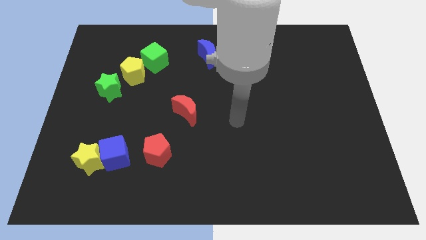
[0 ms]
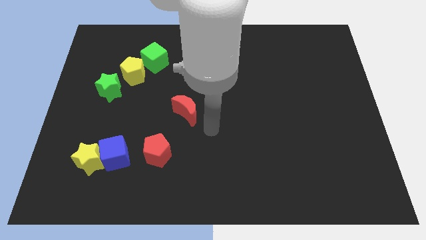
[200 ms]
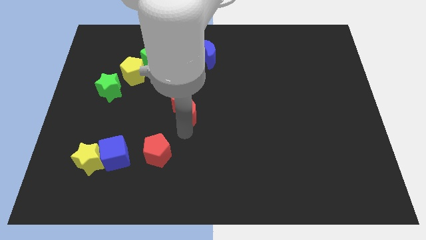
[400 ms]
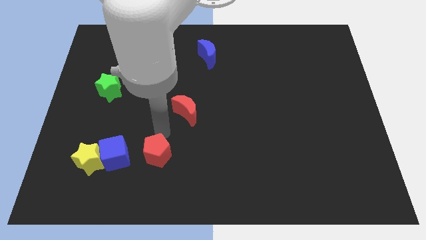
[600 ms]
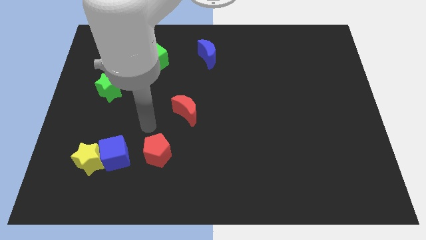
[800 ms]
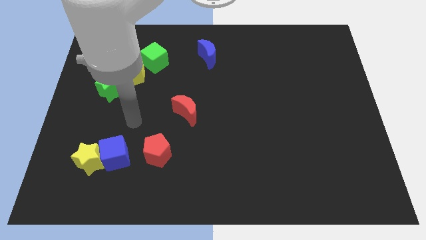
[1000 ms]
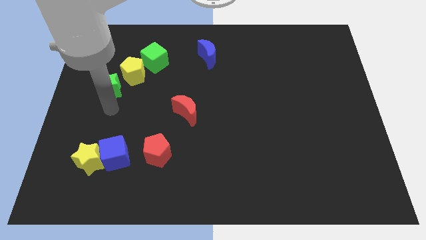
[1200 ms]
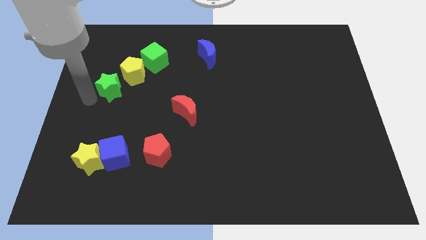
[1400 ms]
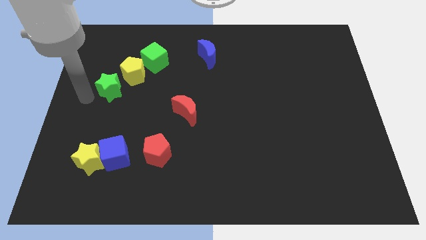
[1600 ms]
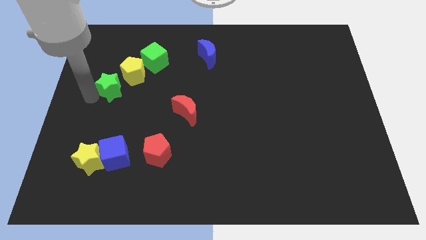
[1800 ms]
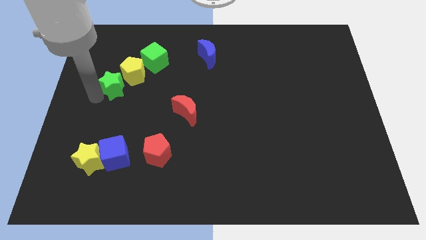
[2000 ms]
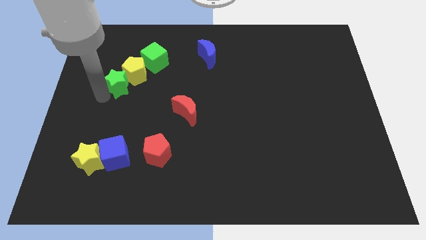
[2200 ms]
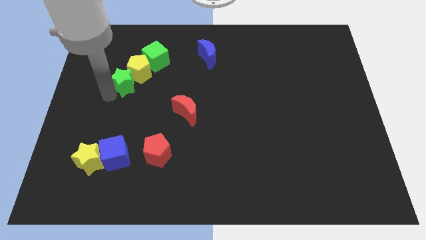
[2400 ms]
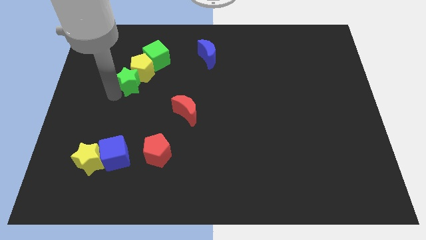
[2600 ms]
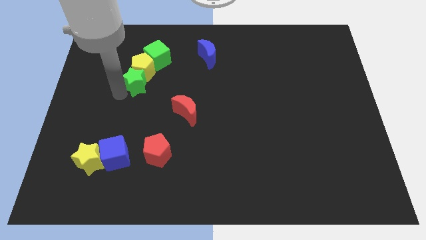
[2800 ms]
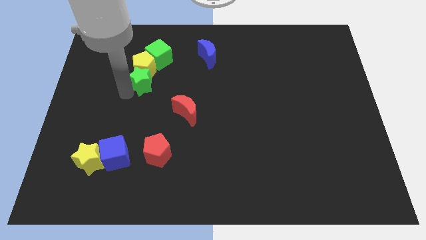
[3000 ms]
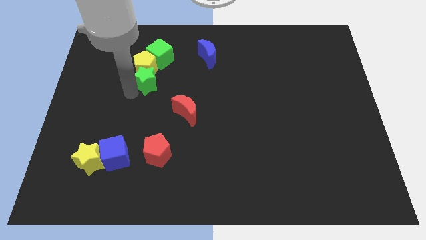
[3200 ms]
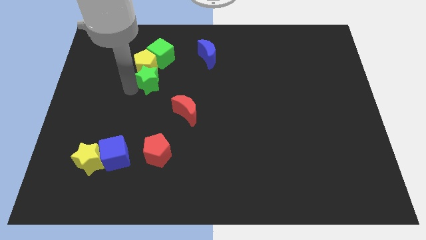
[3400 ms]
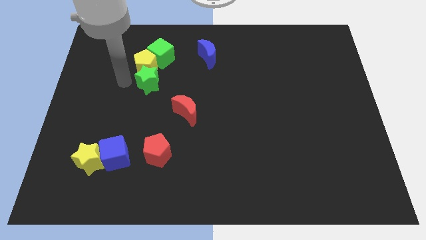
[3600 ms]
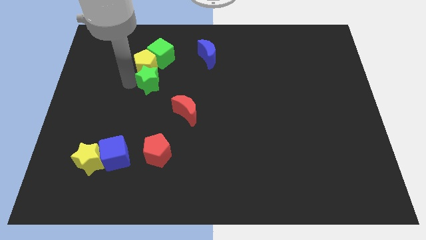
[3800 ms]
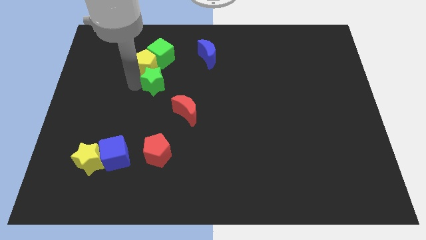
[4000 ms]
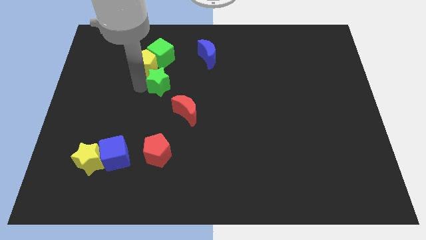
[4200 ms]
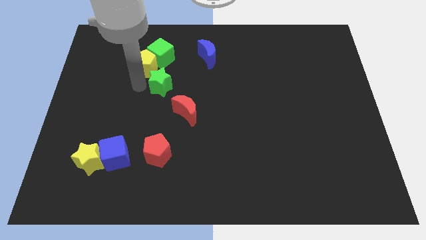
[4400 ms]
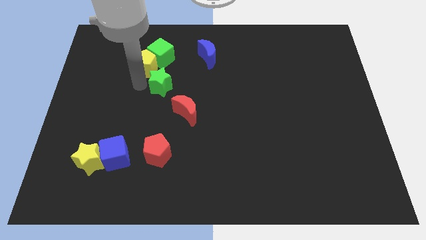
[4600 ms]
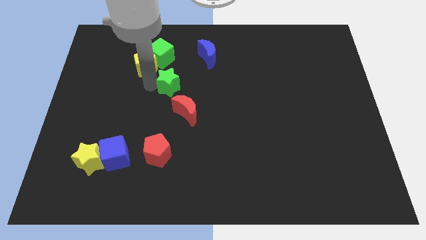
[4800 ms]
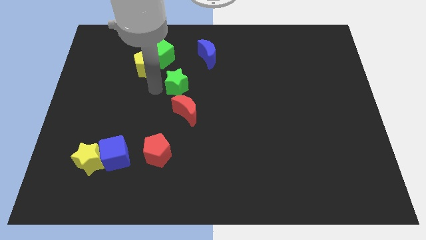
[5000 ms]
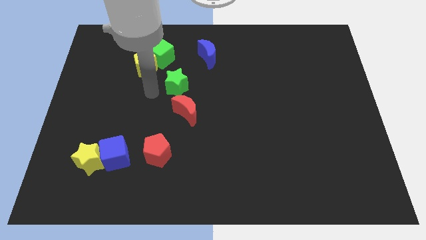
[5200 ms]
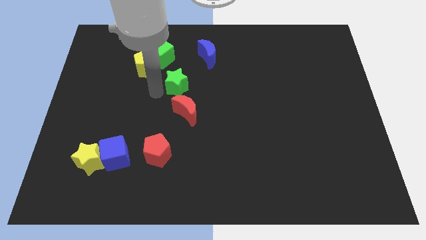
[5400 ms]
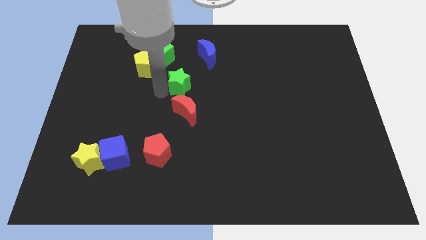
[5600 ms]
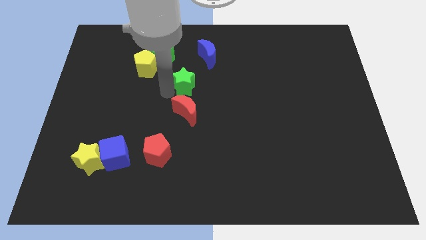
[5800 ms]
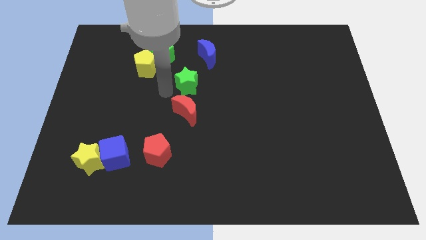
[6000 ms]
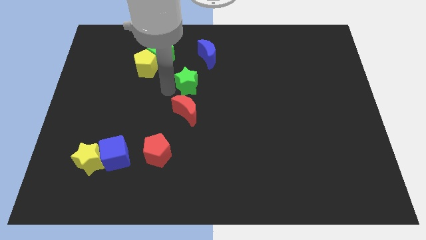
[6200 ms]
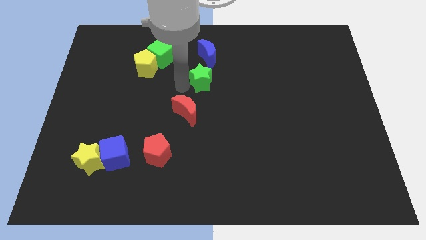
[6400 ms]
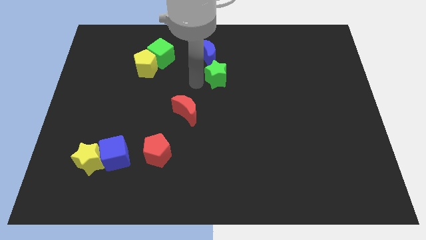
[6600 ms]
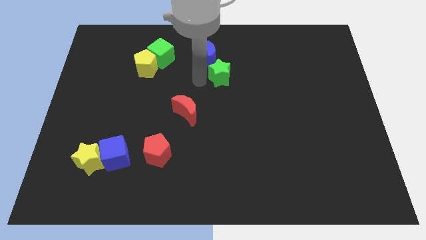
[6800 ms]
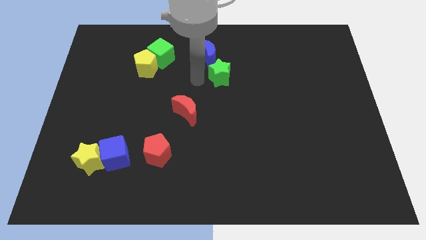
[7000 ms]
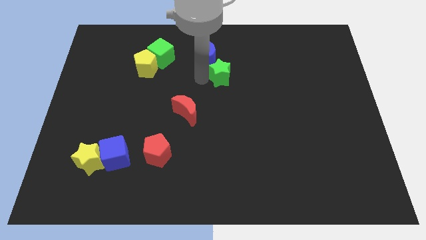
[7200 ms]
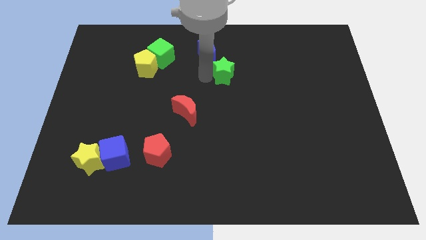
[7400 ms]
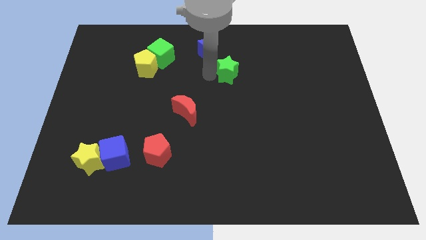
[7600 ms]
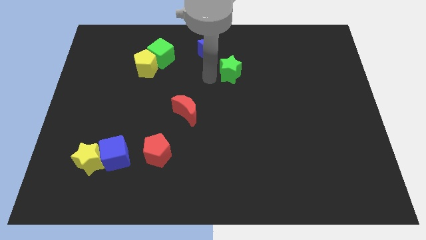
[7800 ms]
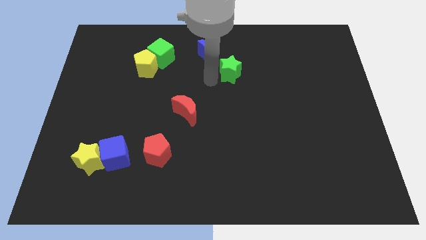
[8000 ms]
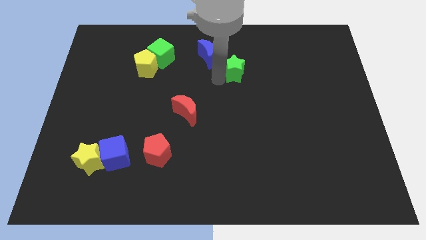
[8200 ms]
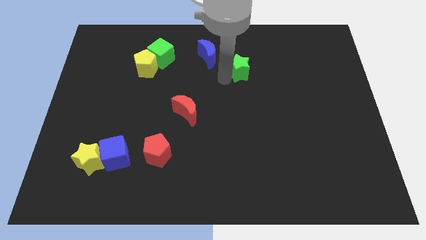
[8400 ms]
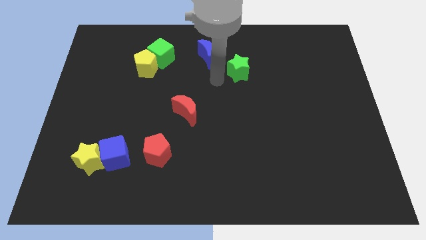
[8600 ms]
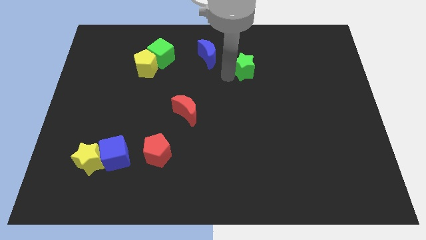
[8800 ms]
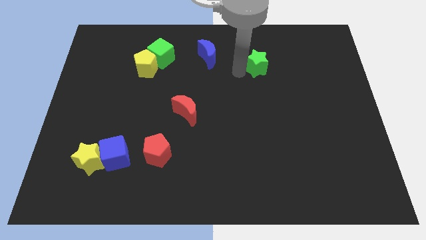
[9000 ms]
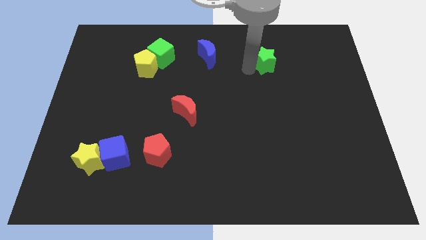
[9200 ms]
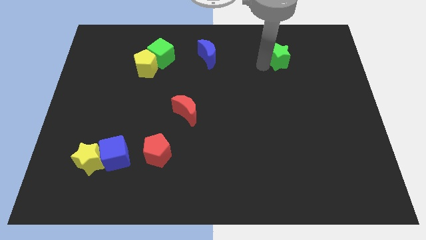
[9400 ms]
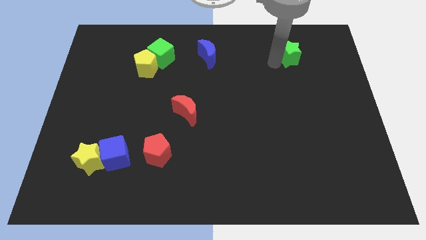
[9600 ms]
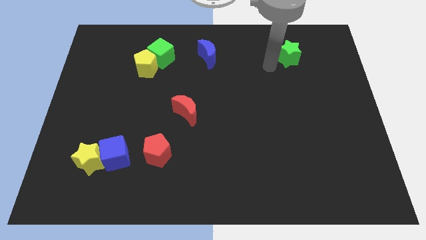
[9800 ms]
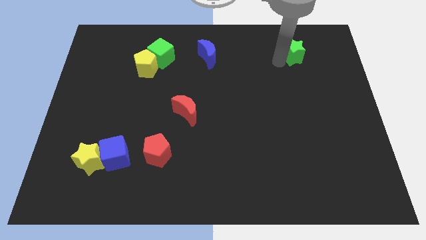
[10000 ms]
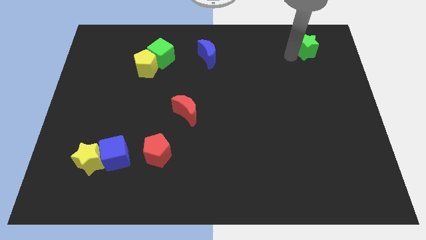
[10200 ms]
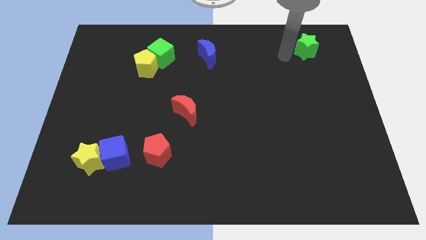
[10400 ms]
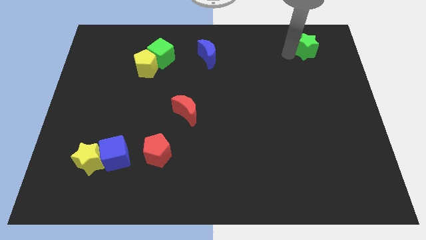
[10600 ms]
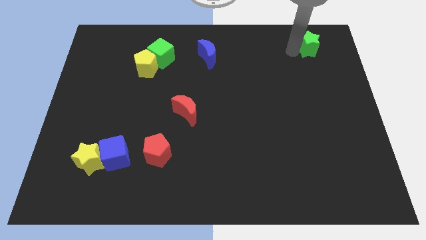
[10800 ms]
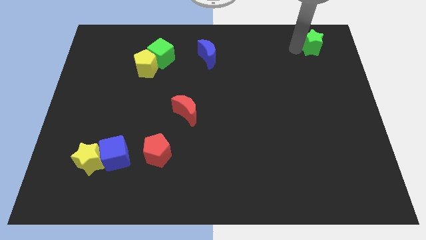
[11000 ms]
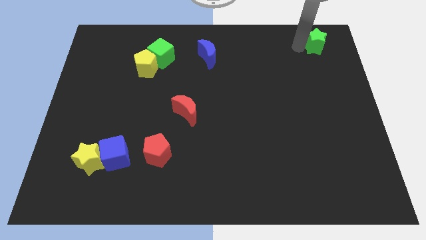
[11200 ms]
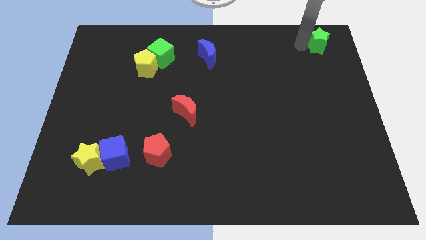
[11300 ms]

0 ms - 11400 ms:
push the green star to the upper right corner
